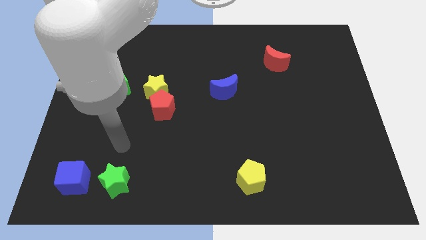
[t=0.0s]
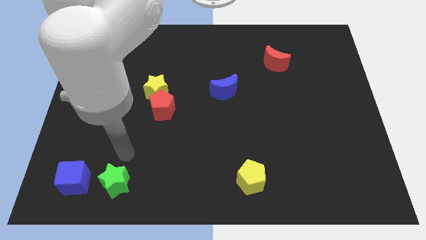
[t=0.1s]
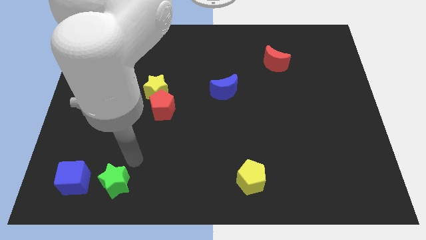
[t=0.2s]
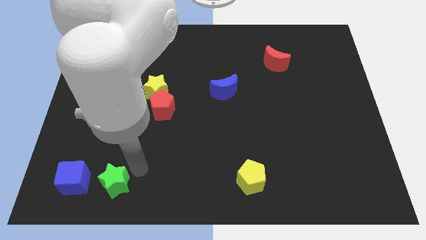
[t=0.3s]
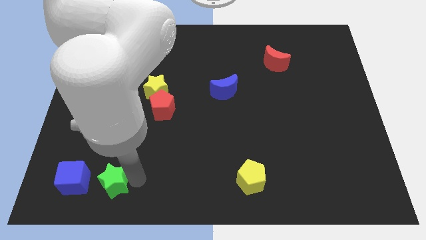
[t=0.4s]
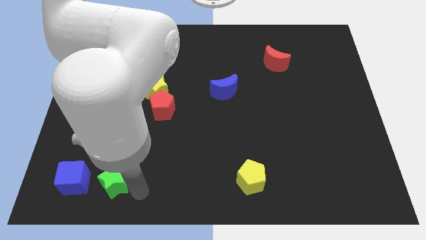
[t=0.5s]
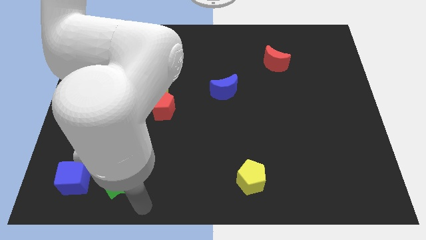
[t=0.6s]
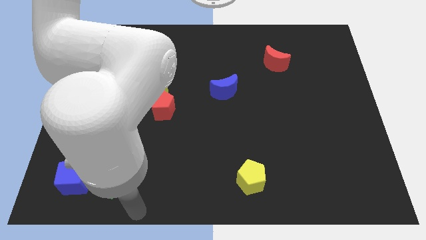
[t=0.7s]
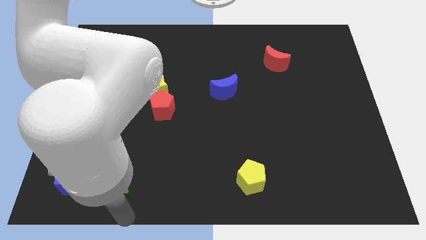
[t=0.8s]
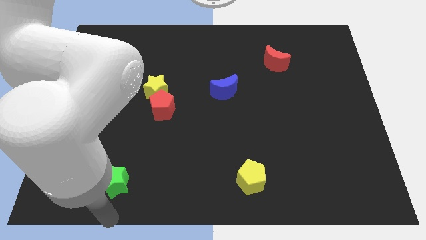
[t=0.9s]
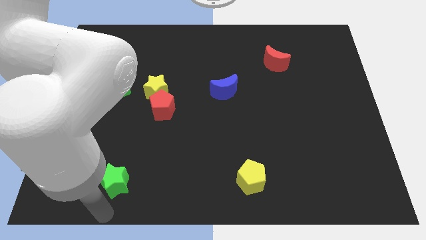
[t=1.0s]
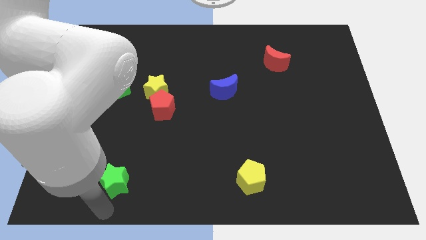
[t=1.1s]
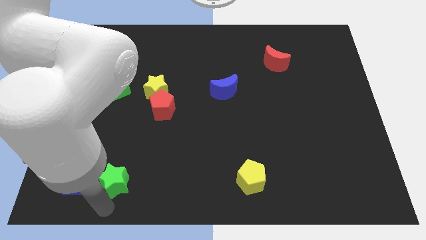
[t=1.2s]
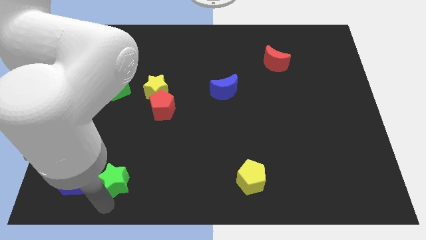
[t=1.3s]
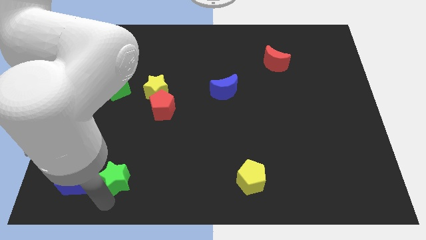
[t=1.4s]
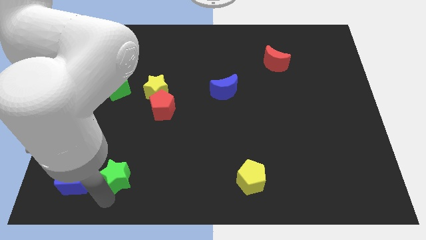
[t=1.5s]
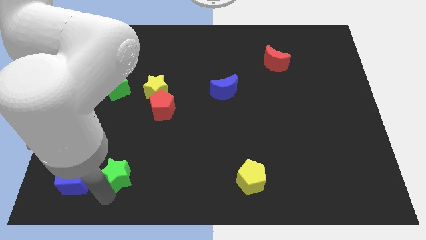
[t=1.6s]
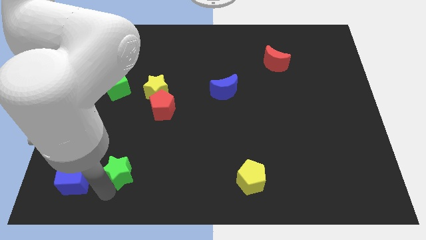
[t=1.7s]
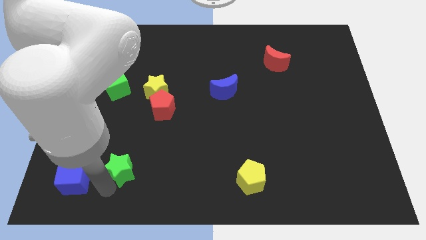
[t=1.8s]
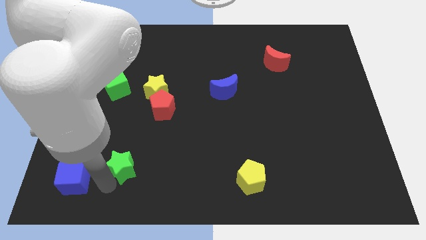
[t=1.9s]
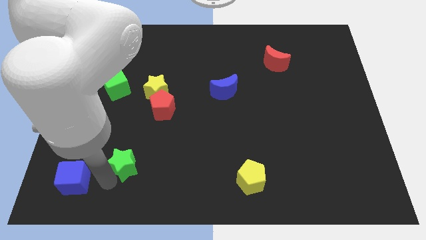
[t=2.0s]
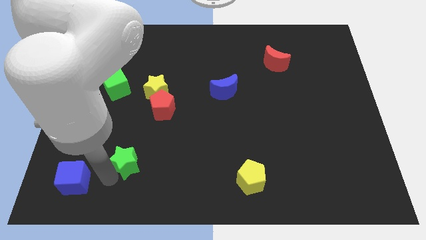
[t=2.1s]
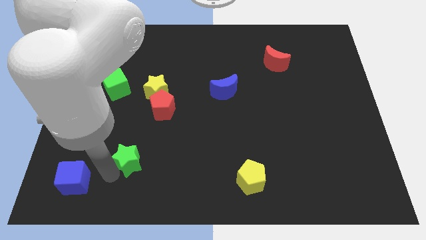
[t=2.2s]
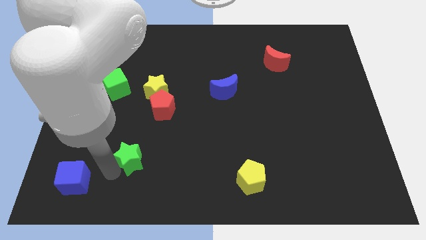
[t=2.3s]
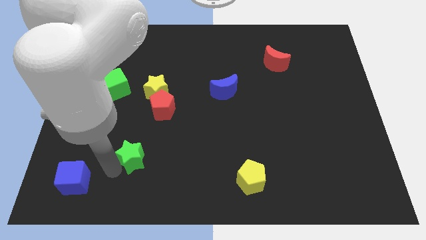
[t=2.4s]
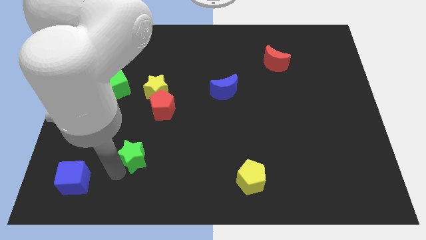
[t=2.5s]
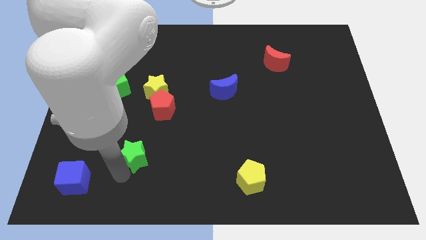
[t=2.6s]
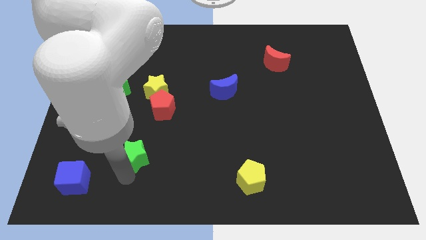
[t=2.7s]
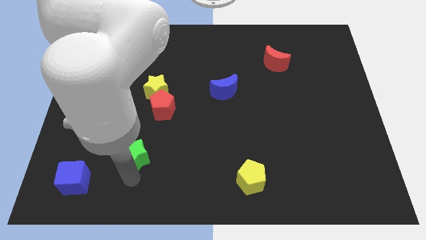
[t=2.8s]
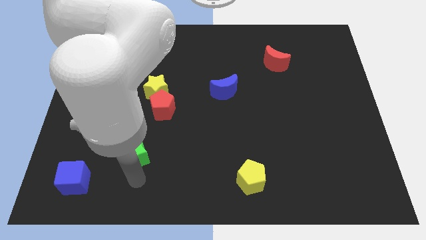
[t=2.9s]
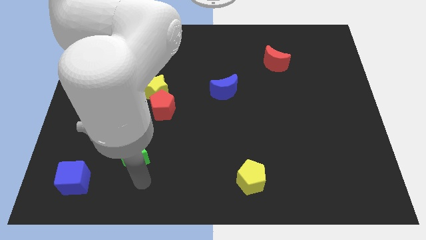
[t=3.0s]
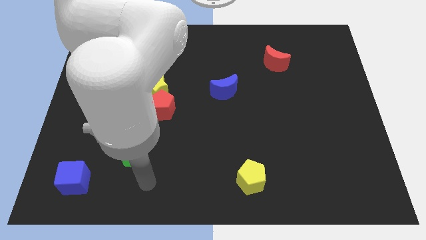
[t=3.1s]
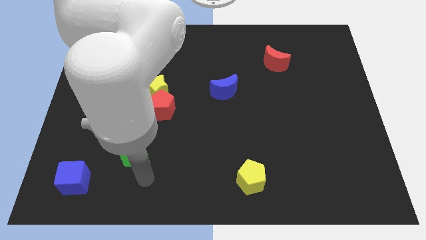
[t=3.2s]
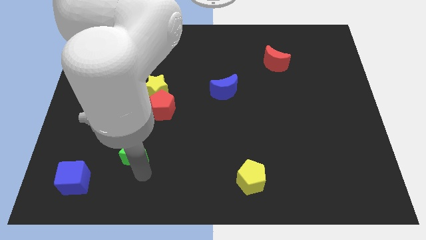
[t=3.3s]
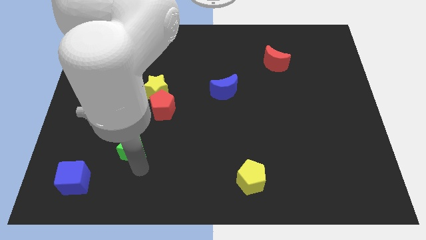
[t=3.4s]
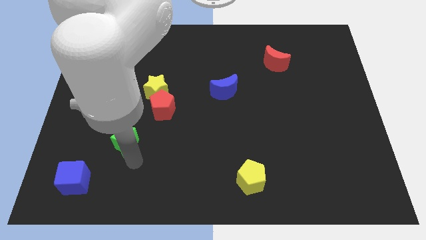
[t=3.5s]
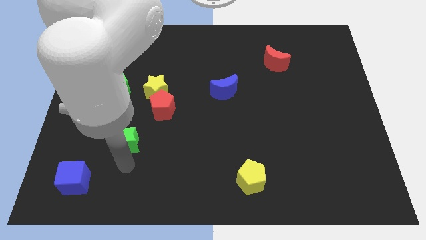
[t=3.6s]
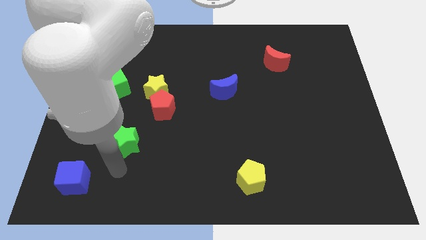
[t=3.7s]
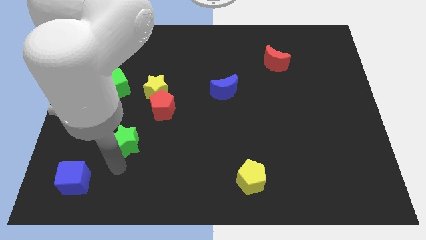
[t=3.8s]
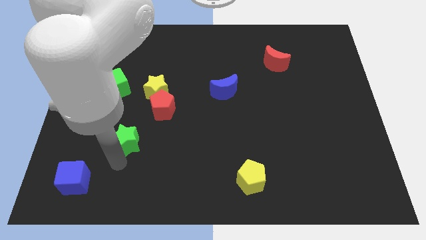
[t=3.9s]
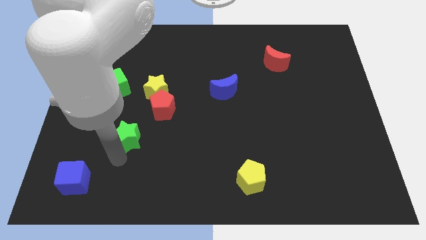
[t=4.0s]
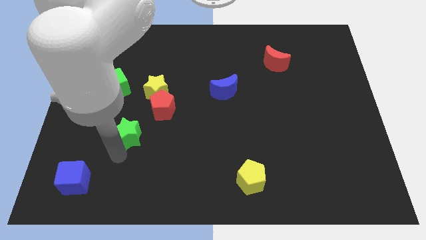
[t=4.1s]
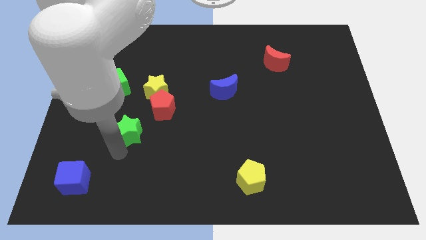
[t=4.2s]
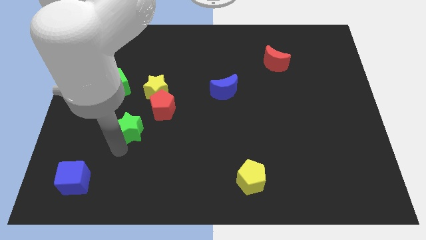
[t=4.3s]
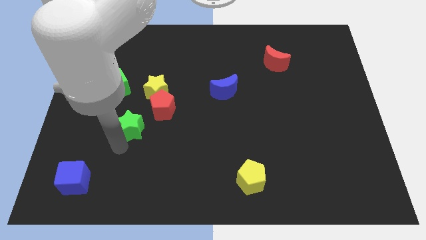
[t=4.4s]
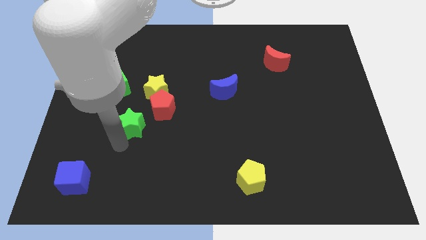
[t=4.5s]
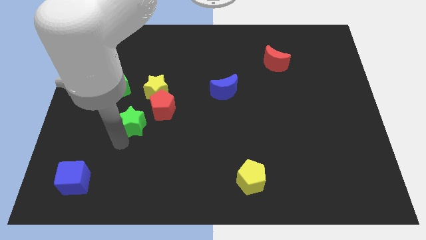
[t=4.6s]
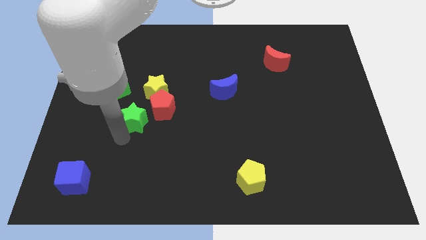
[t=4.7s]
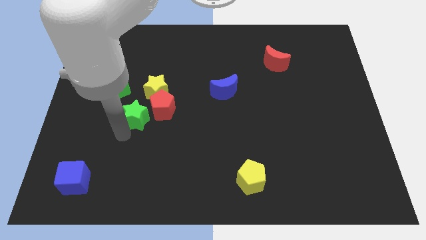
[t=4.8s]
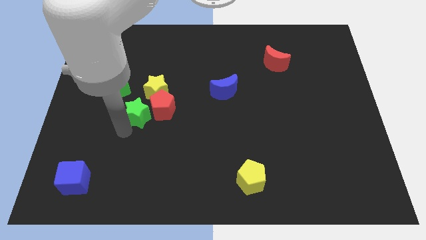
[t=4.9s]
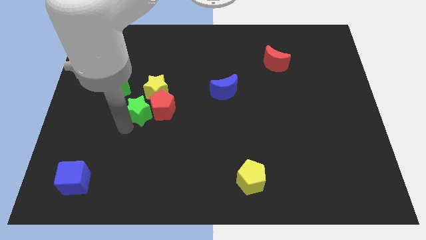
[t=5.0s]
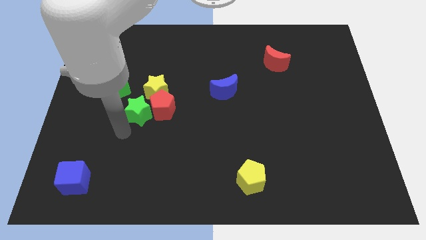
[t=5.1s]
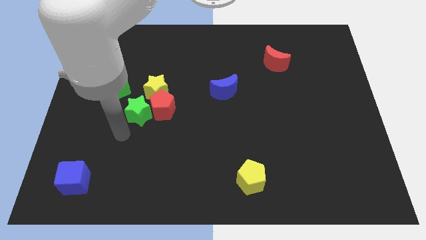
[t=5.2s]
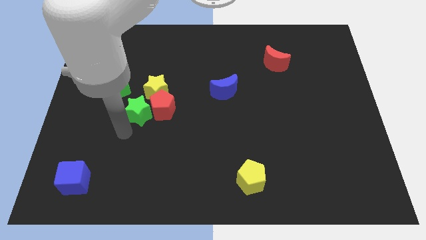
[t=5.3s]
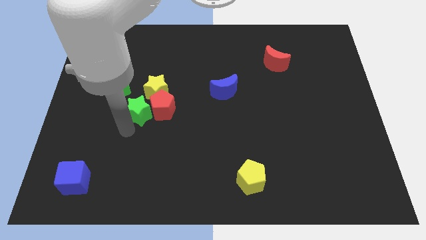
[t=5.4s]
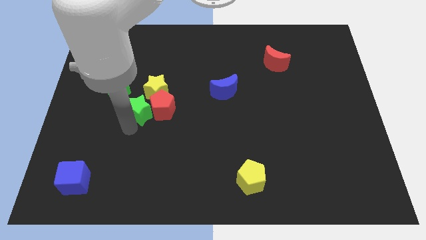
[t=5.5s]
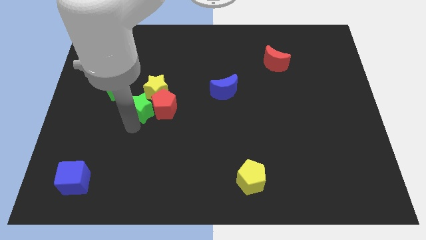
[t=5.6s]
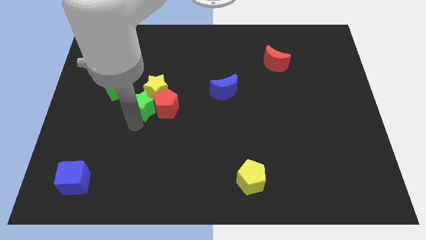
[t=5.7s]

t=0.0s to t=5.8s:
move the green star towards the yellow star

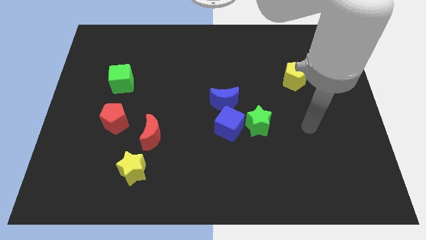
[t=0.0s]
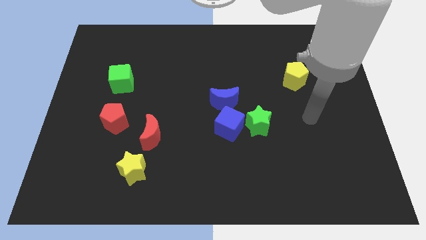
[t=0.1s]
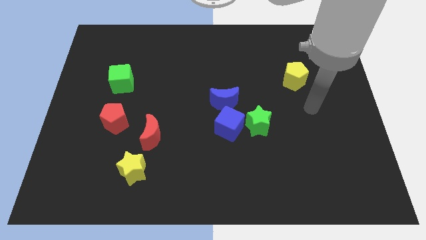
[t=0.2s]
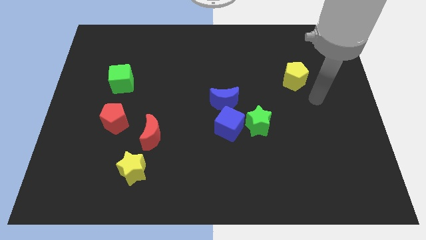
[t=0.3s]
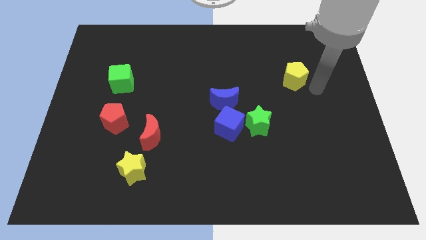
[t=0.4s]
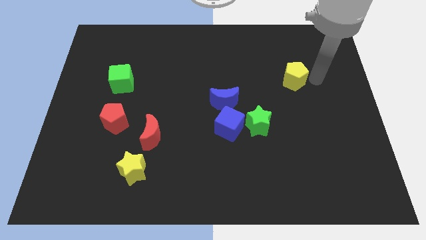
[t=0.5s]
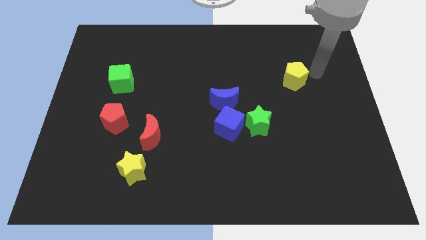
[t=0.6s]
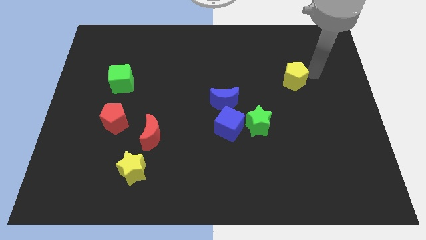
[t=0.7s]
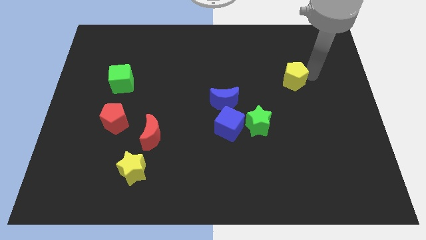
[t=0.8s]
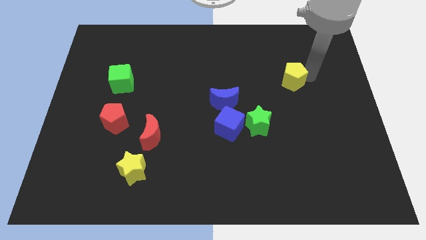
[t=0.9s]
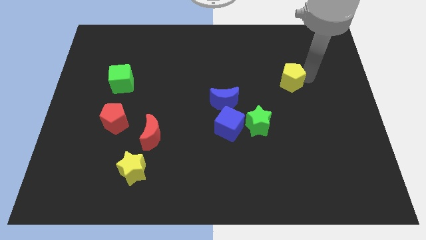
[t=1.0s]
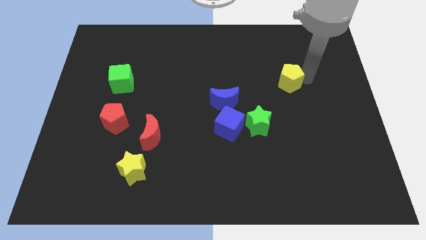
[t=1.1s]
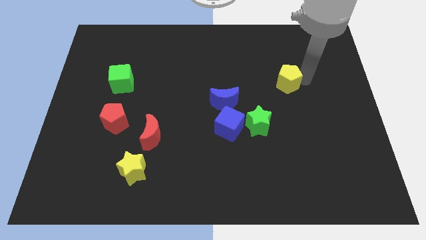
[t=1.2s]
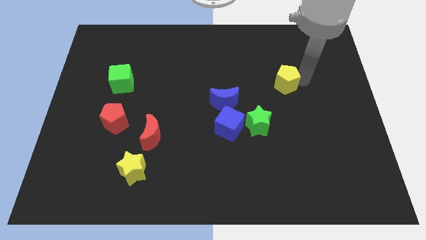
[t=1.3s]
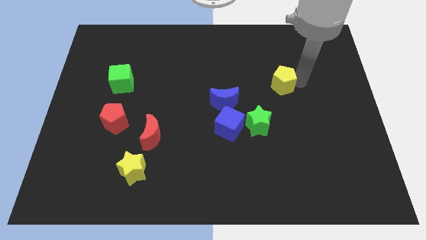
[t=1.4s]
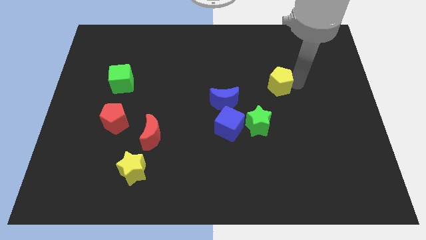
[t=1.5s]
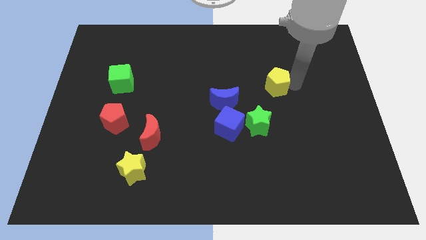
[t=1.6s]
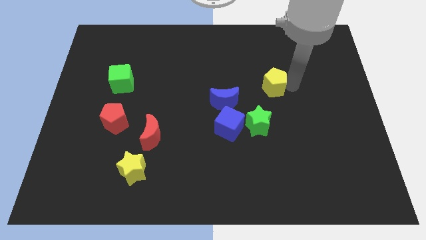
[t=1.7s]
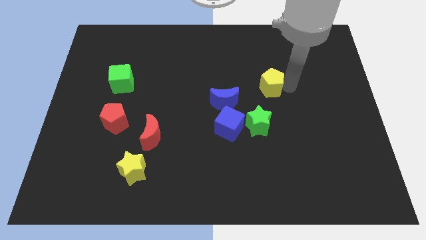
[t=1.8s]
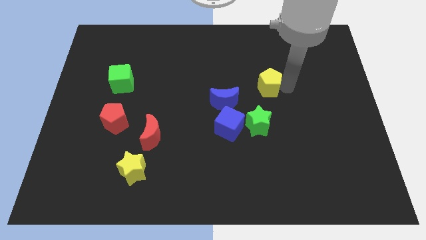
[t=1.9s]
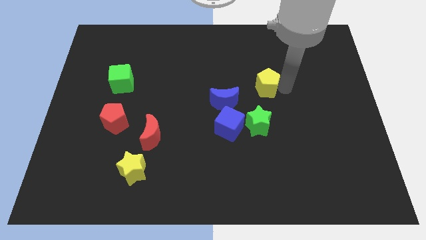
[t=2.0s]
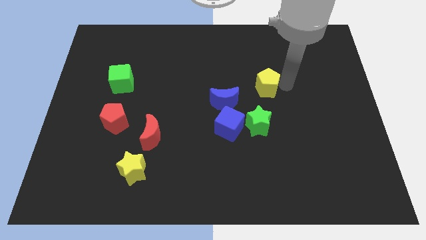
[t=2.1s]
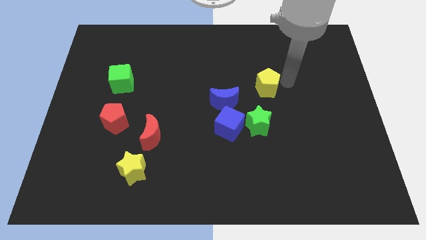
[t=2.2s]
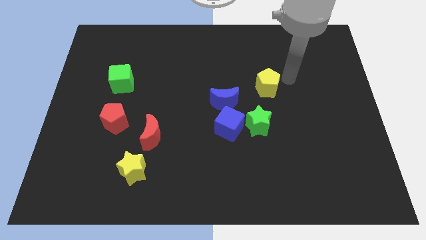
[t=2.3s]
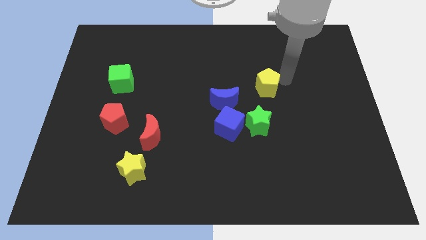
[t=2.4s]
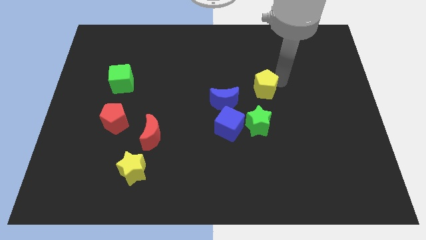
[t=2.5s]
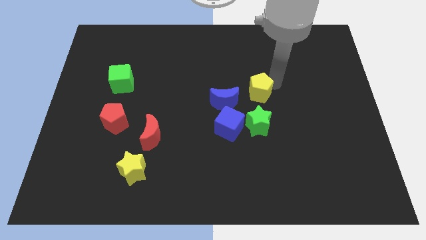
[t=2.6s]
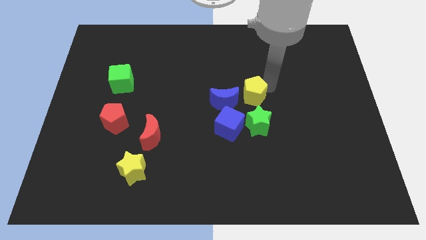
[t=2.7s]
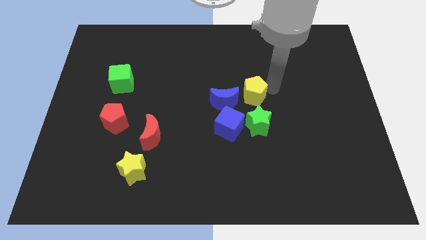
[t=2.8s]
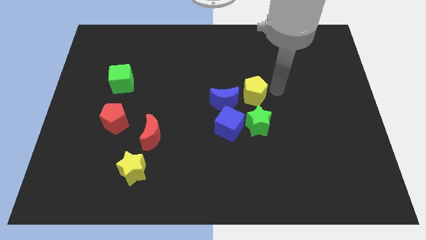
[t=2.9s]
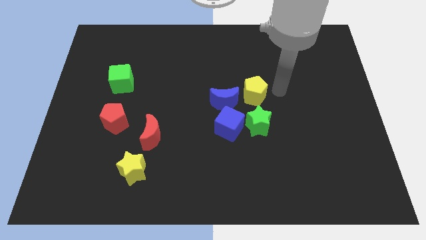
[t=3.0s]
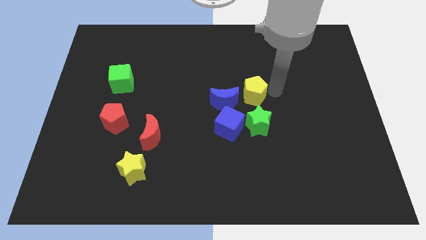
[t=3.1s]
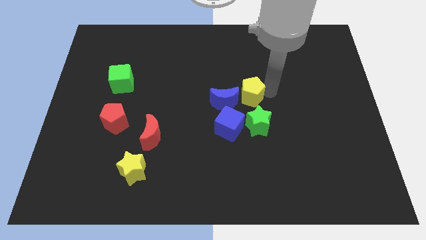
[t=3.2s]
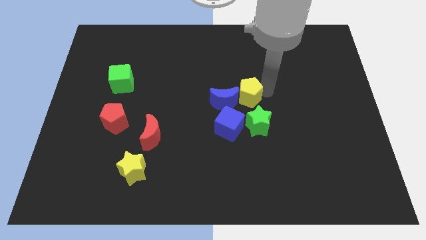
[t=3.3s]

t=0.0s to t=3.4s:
slide the yellow pentagon to the blue moon
